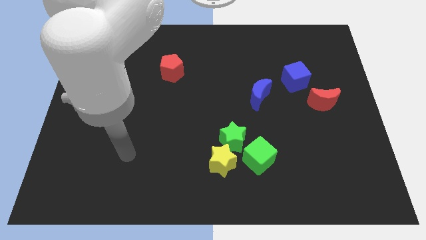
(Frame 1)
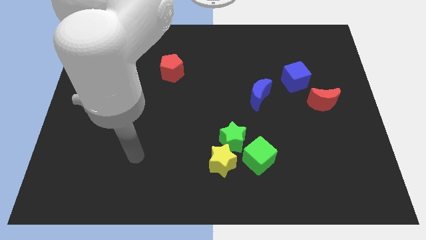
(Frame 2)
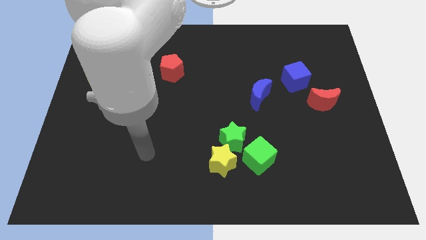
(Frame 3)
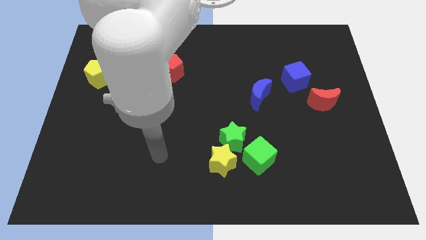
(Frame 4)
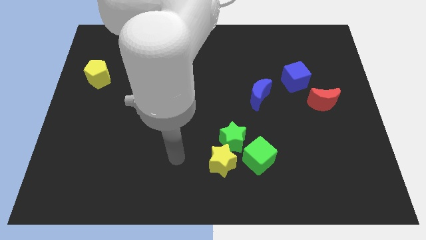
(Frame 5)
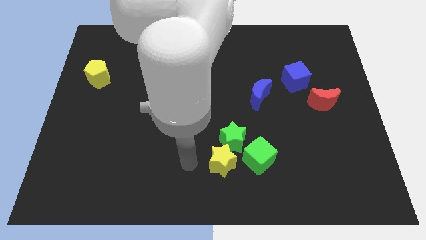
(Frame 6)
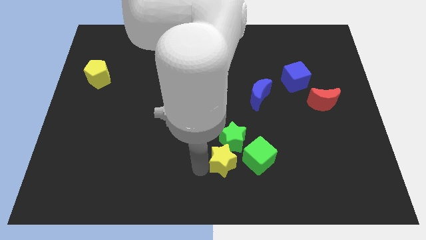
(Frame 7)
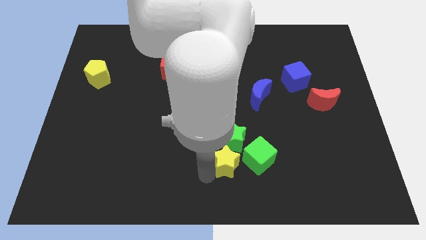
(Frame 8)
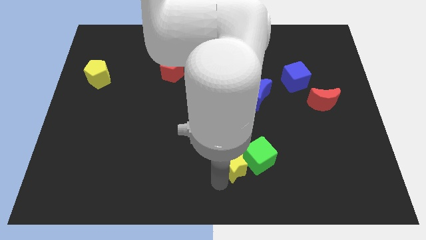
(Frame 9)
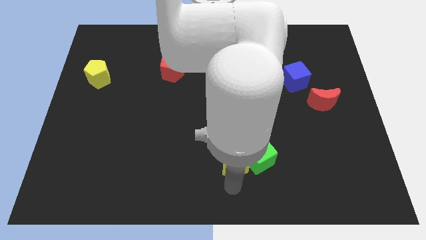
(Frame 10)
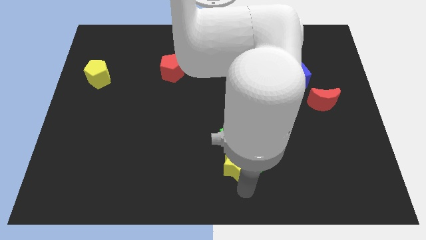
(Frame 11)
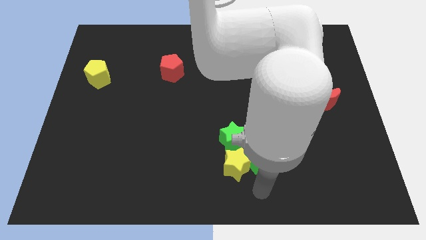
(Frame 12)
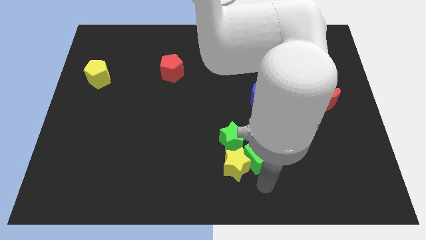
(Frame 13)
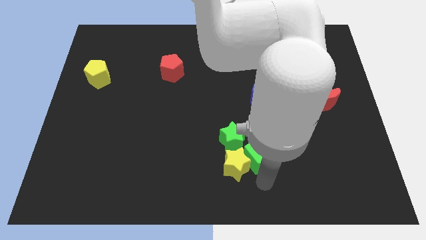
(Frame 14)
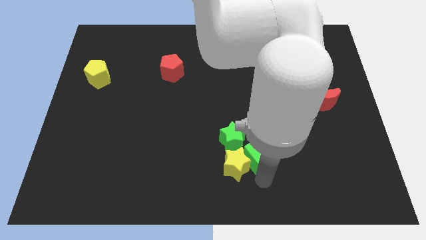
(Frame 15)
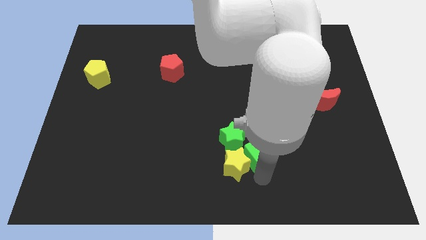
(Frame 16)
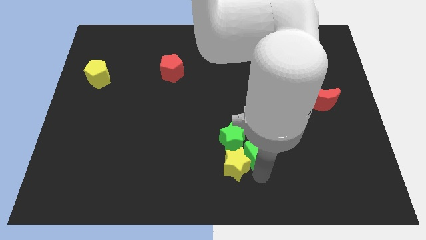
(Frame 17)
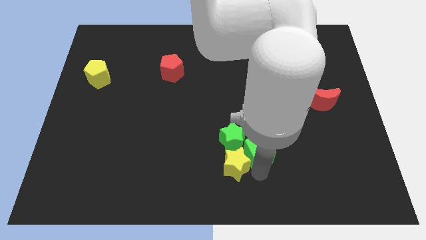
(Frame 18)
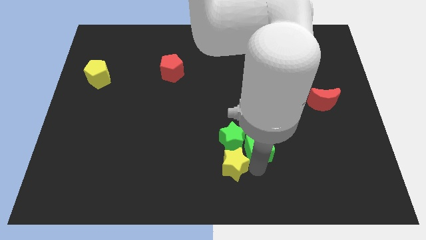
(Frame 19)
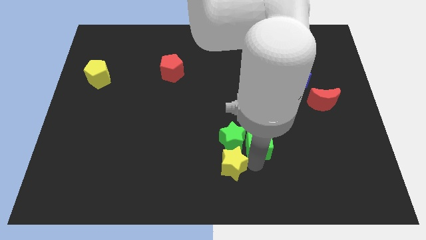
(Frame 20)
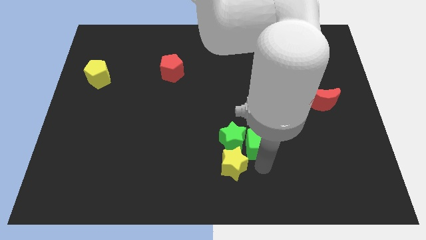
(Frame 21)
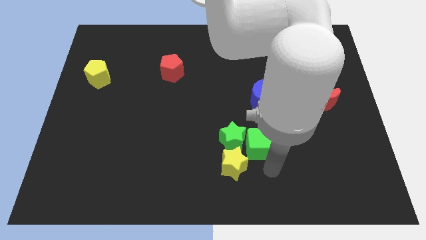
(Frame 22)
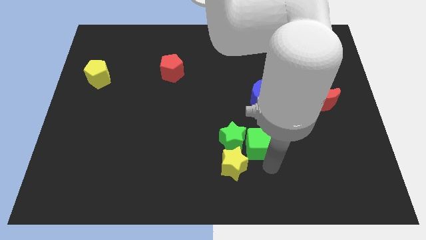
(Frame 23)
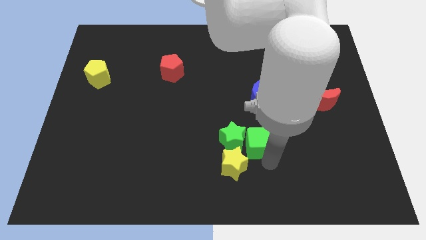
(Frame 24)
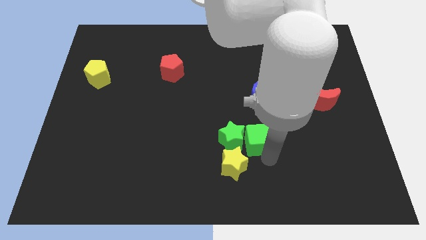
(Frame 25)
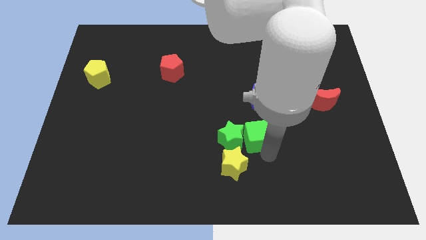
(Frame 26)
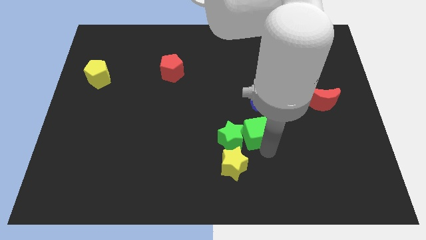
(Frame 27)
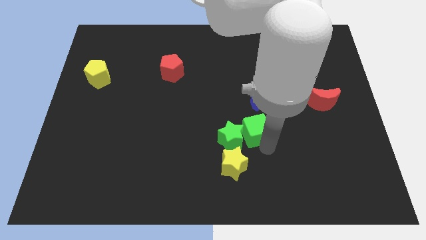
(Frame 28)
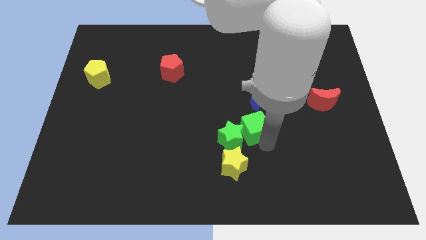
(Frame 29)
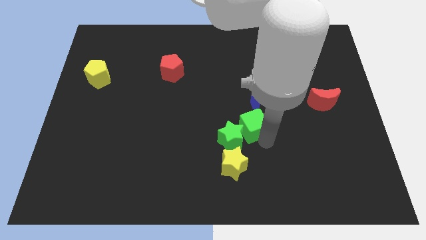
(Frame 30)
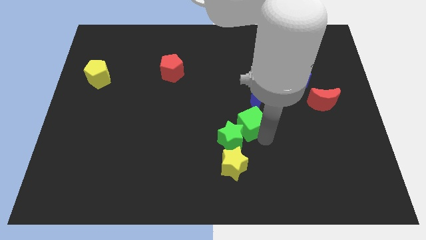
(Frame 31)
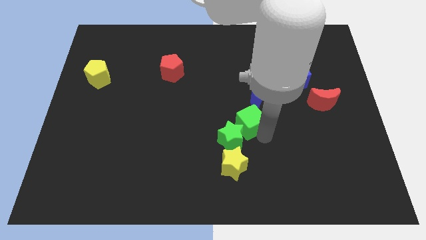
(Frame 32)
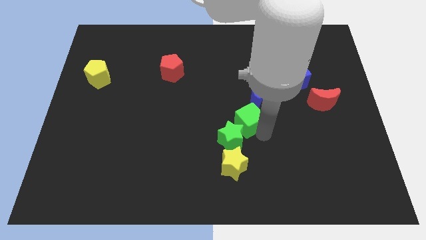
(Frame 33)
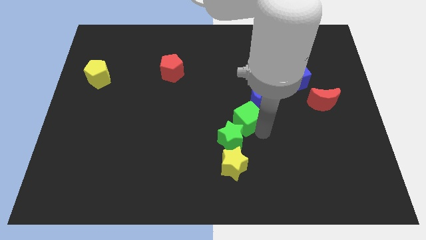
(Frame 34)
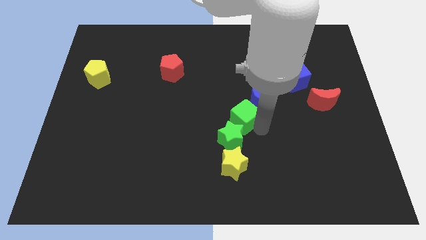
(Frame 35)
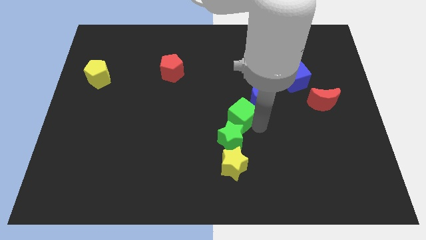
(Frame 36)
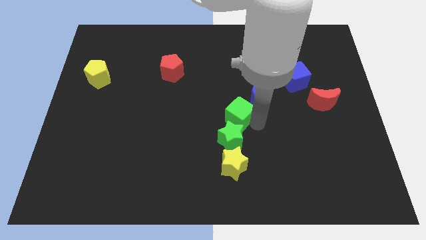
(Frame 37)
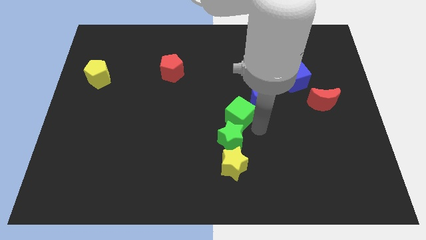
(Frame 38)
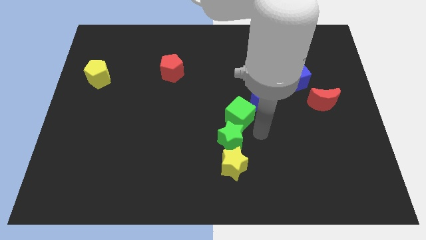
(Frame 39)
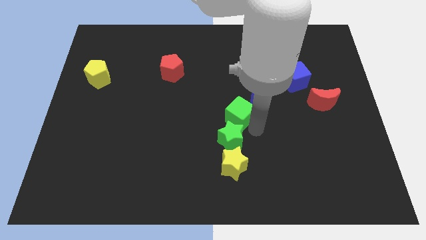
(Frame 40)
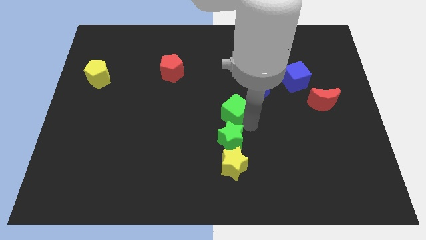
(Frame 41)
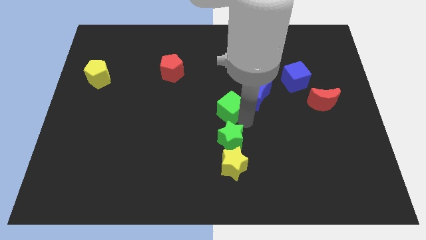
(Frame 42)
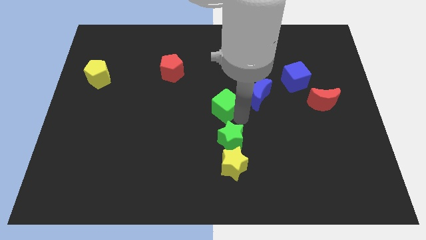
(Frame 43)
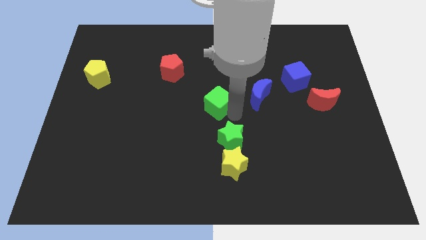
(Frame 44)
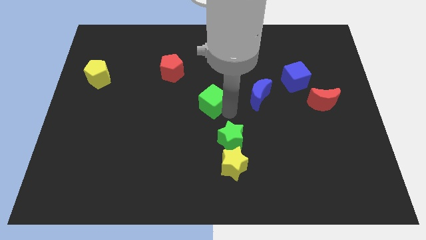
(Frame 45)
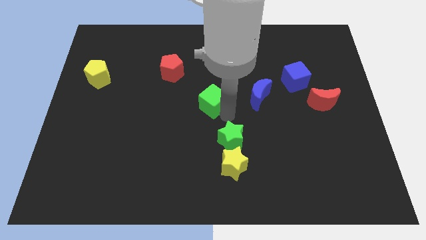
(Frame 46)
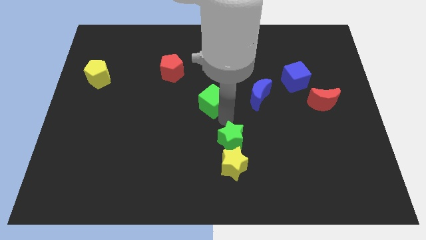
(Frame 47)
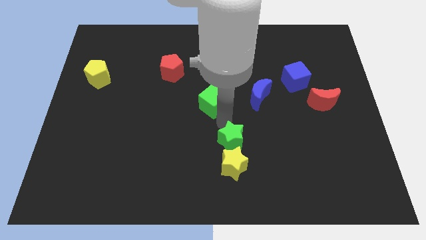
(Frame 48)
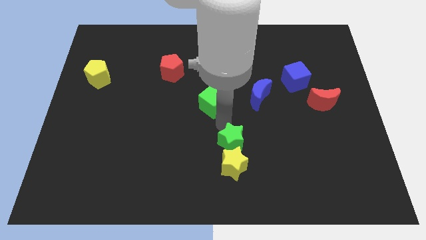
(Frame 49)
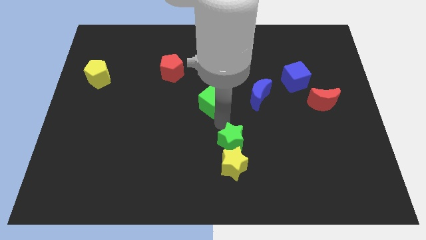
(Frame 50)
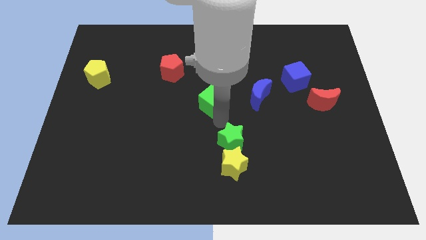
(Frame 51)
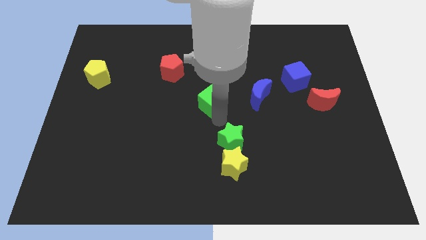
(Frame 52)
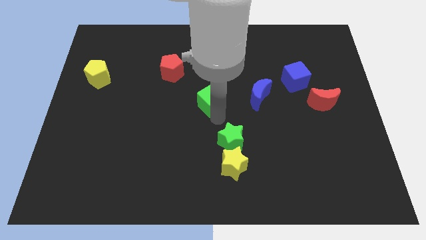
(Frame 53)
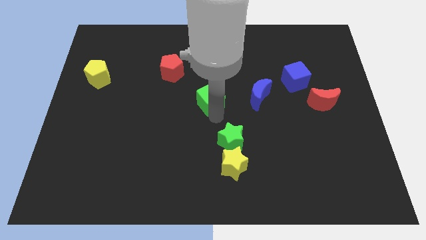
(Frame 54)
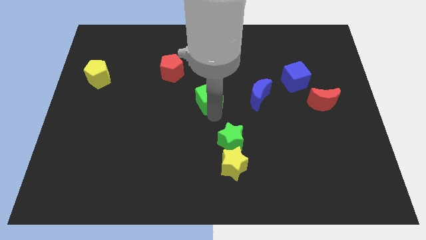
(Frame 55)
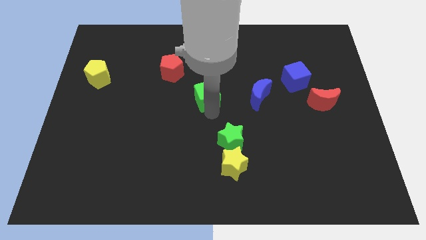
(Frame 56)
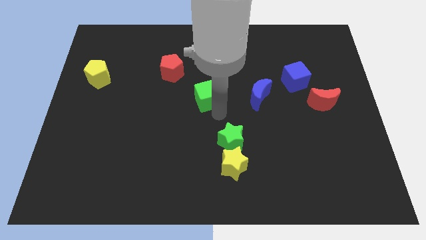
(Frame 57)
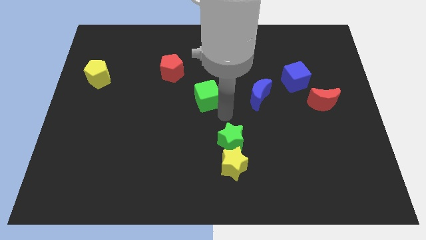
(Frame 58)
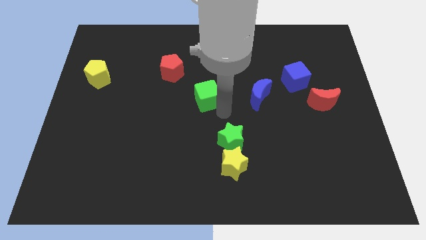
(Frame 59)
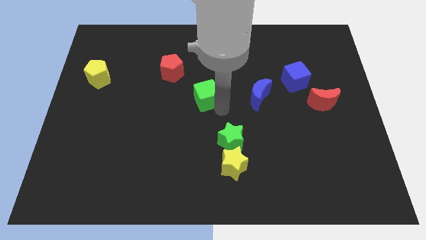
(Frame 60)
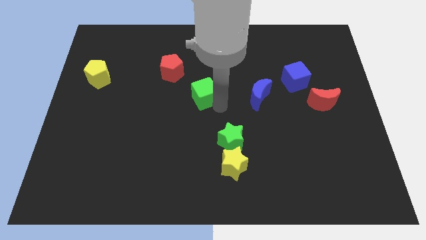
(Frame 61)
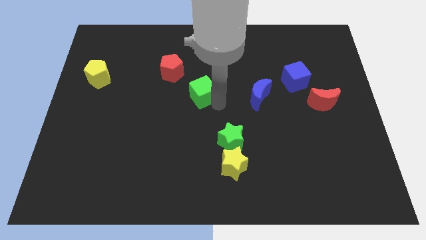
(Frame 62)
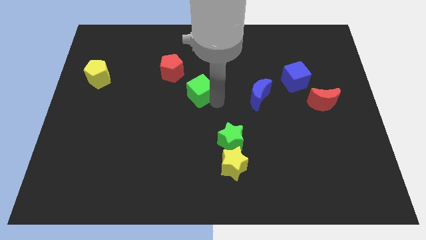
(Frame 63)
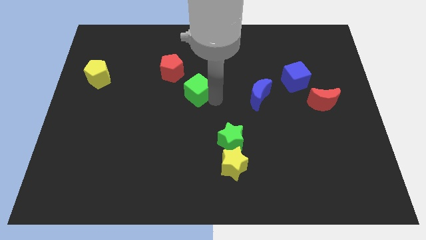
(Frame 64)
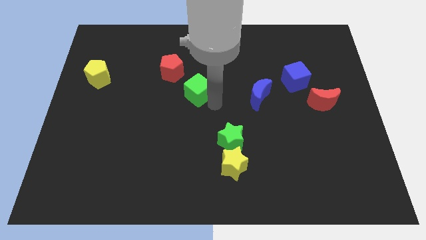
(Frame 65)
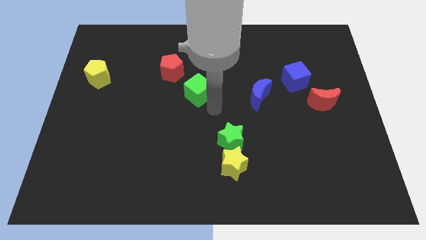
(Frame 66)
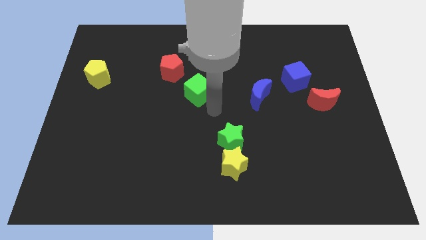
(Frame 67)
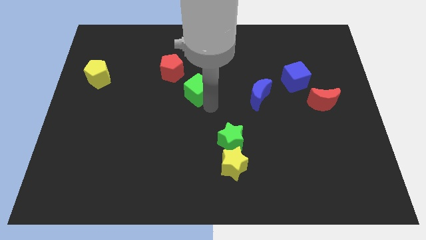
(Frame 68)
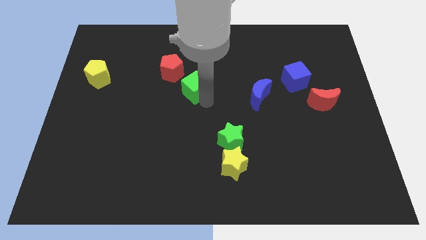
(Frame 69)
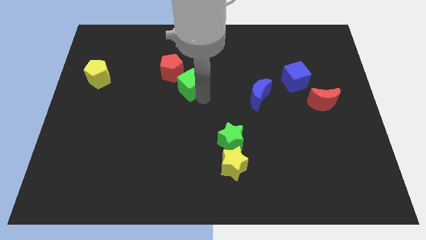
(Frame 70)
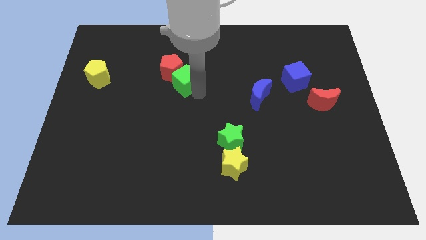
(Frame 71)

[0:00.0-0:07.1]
move the green cube close to the red pentagon
